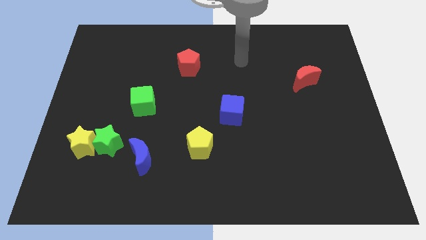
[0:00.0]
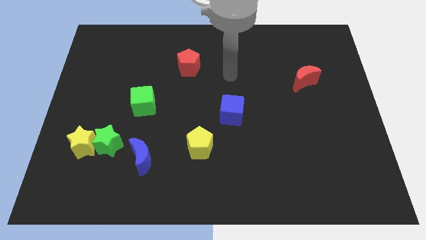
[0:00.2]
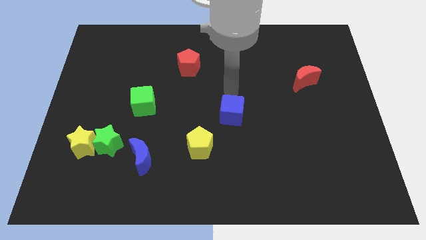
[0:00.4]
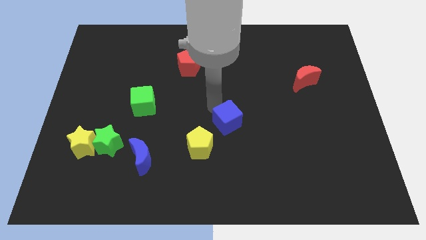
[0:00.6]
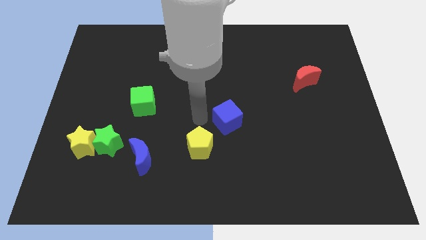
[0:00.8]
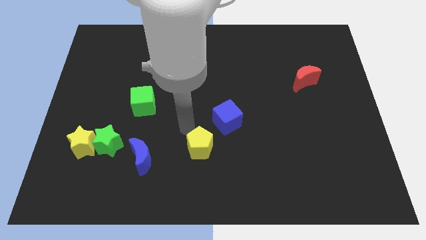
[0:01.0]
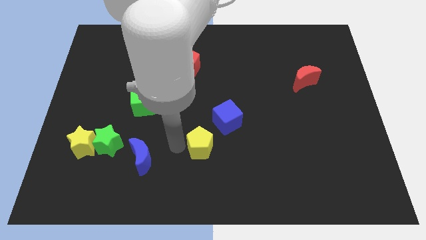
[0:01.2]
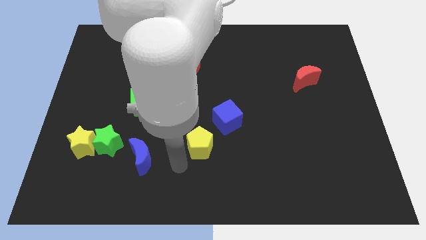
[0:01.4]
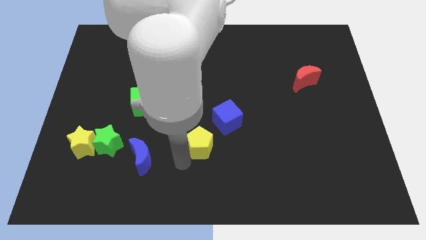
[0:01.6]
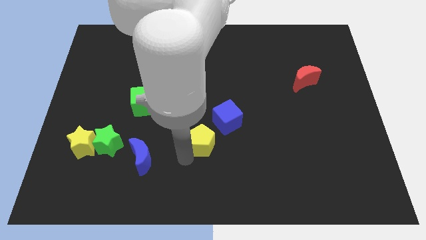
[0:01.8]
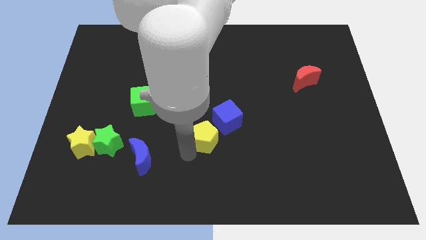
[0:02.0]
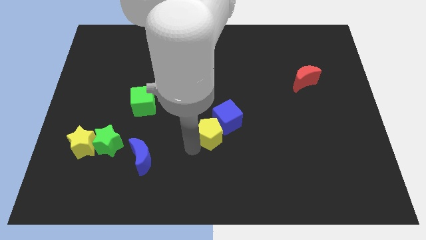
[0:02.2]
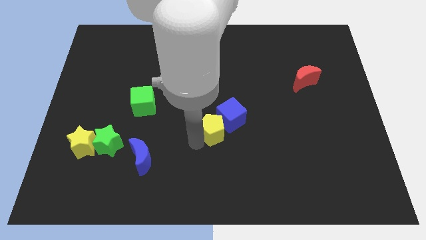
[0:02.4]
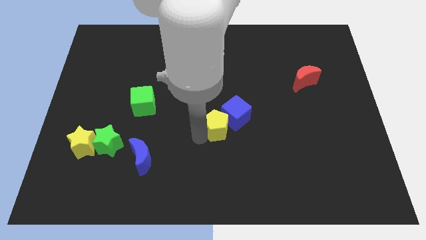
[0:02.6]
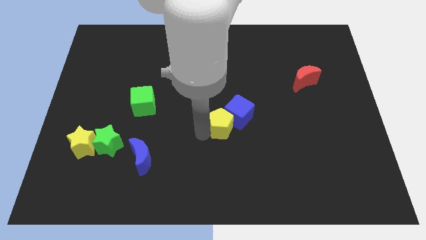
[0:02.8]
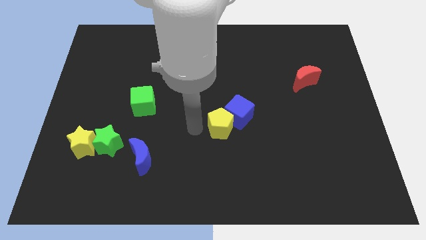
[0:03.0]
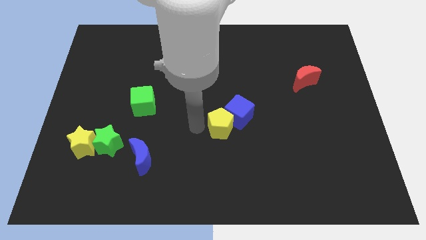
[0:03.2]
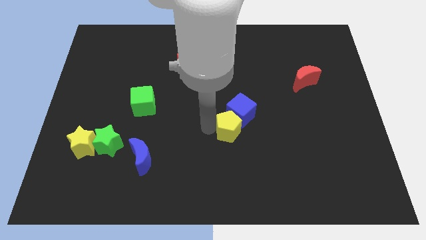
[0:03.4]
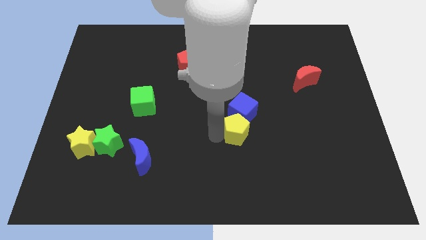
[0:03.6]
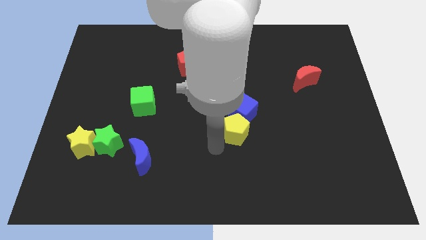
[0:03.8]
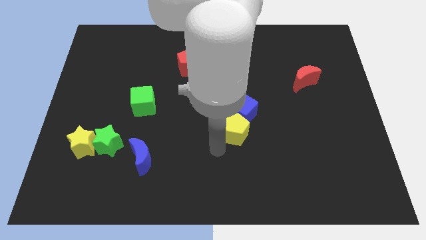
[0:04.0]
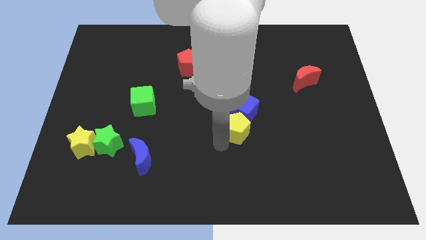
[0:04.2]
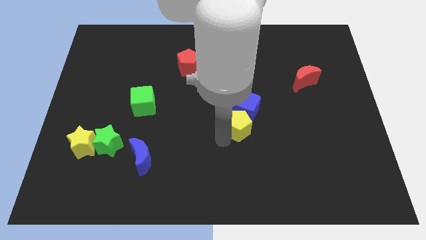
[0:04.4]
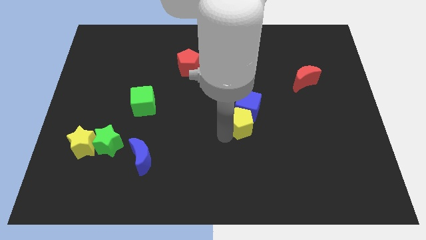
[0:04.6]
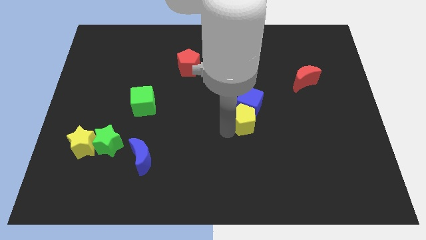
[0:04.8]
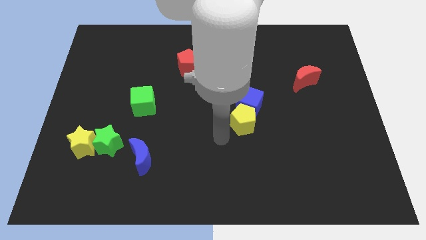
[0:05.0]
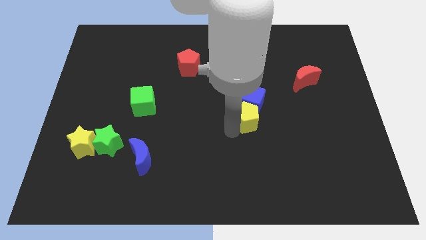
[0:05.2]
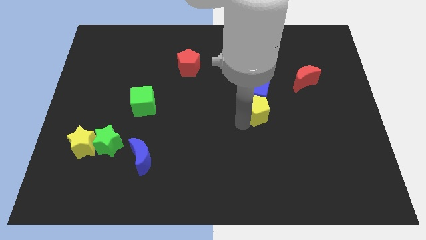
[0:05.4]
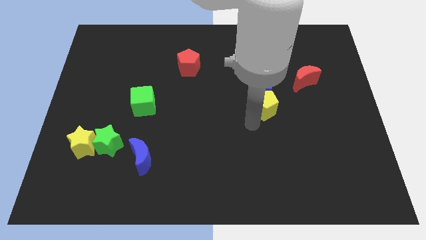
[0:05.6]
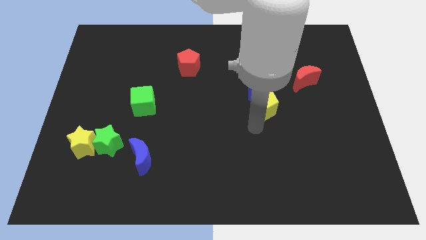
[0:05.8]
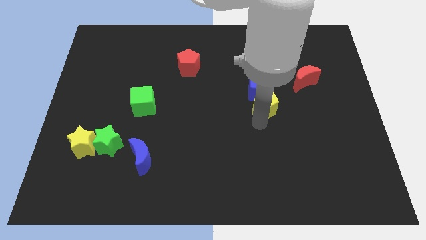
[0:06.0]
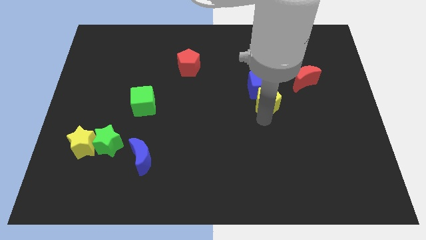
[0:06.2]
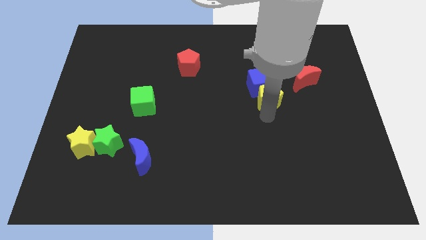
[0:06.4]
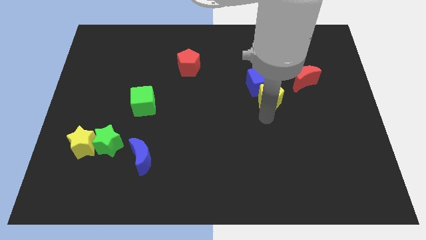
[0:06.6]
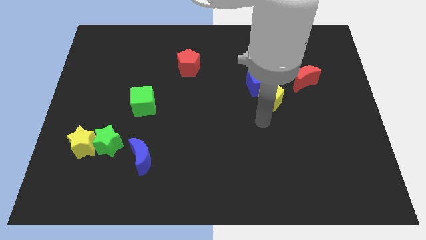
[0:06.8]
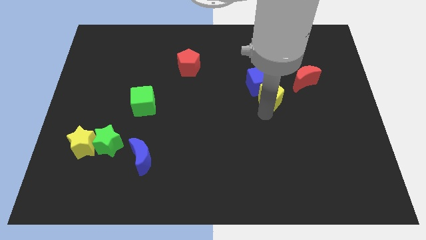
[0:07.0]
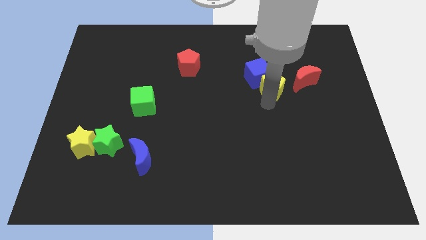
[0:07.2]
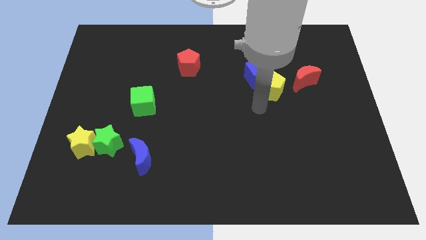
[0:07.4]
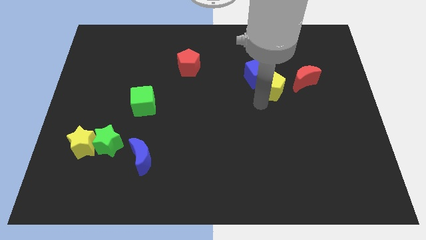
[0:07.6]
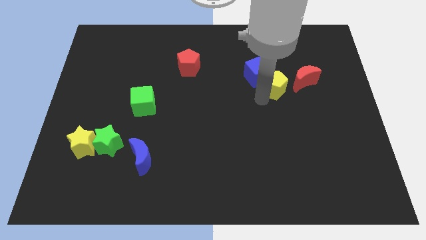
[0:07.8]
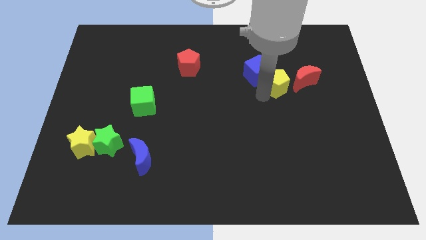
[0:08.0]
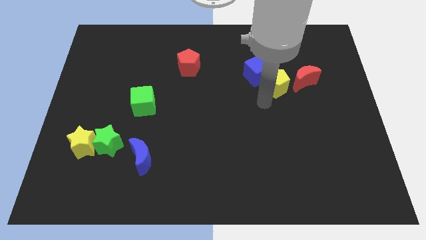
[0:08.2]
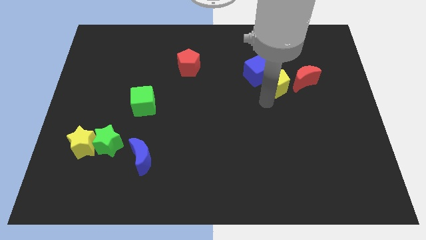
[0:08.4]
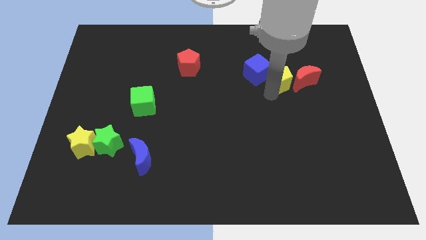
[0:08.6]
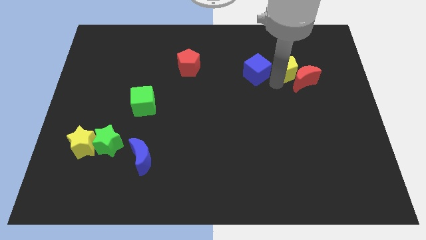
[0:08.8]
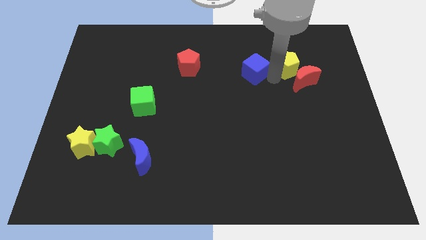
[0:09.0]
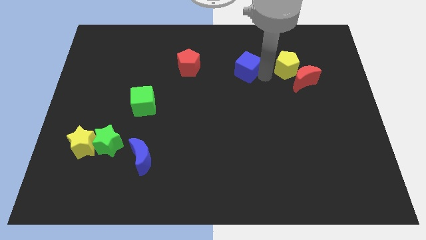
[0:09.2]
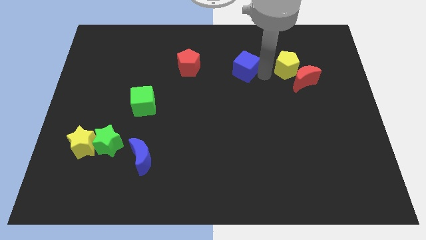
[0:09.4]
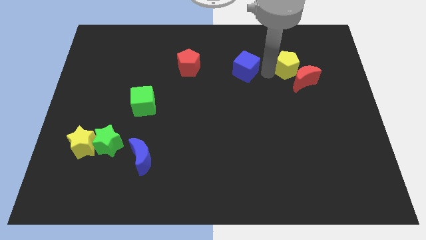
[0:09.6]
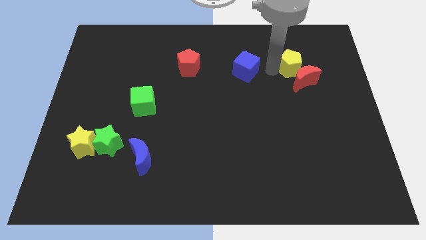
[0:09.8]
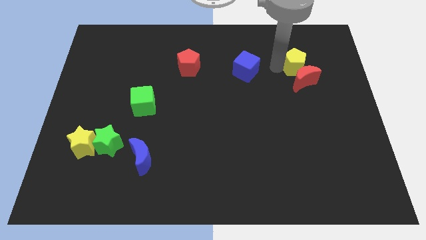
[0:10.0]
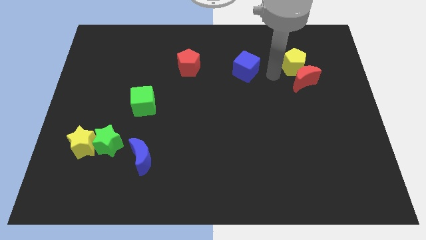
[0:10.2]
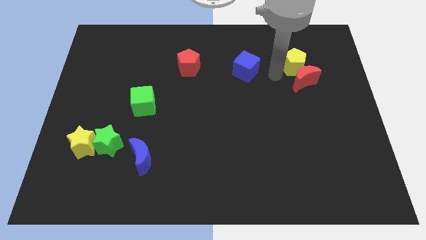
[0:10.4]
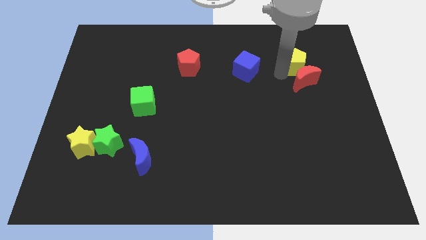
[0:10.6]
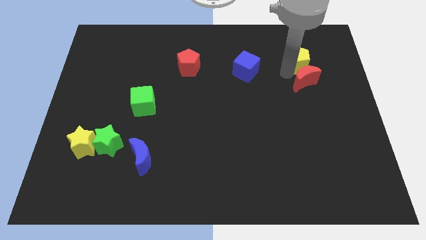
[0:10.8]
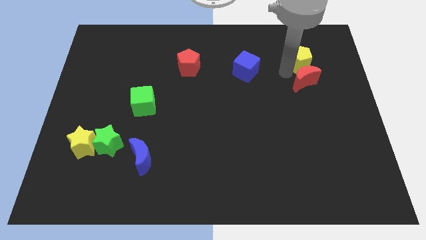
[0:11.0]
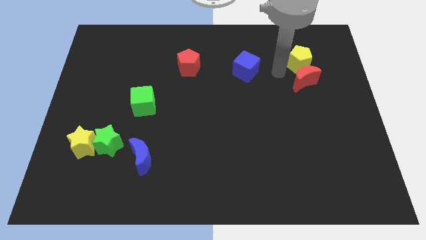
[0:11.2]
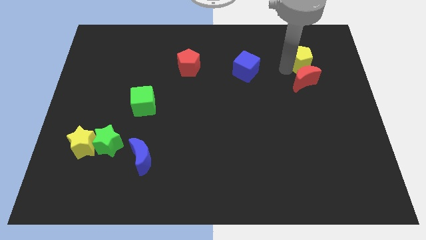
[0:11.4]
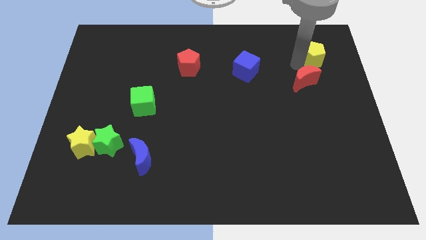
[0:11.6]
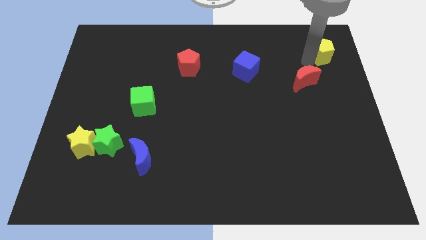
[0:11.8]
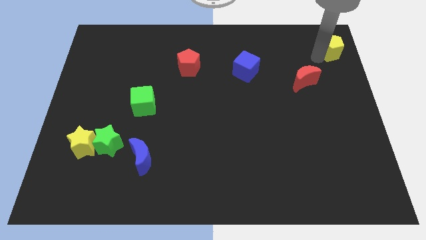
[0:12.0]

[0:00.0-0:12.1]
push the yellow pentagon to the top right

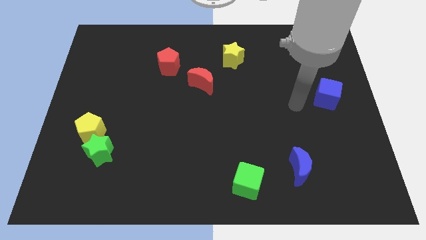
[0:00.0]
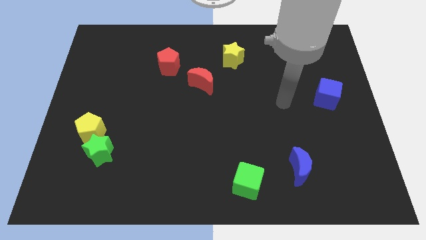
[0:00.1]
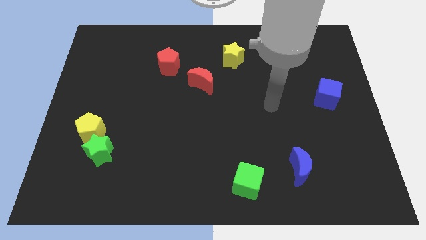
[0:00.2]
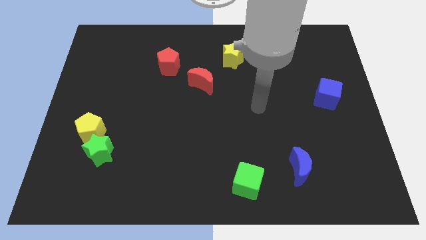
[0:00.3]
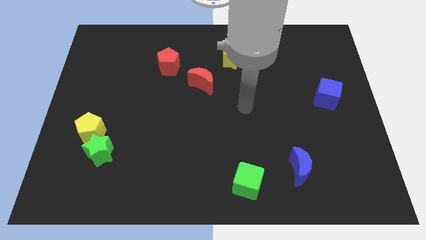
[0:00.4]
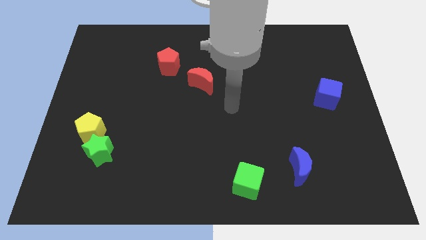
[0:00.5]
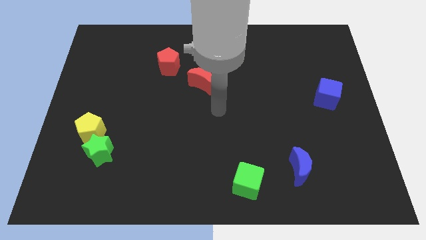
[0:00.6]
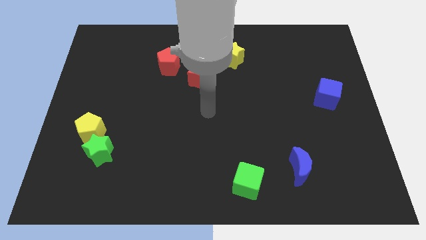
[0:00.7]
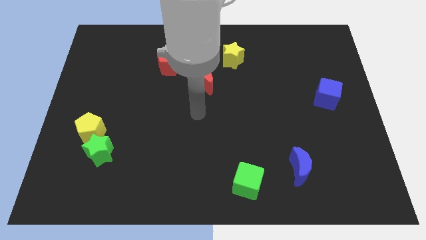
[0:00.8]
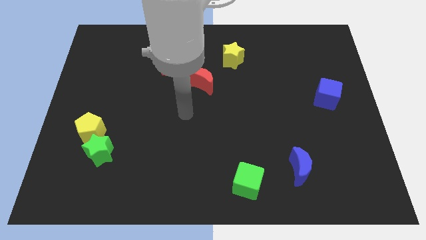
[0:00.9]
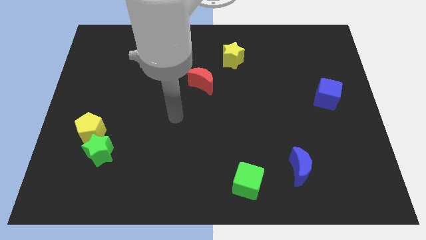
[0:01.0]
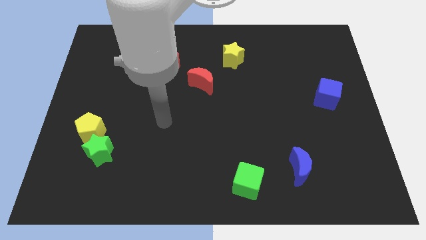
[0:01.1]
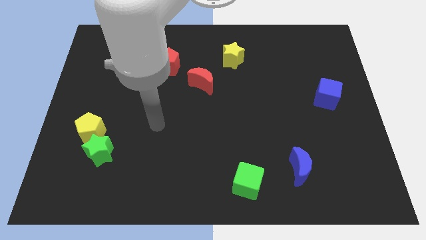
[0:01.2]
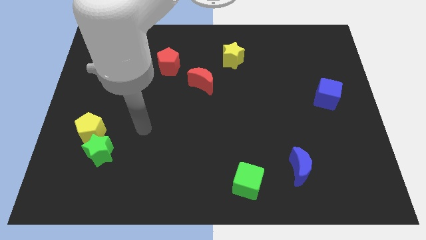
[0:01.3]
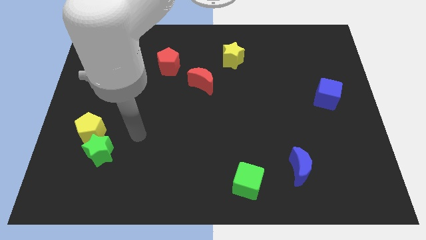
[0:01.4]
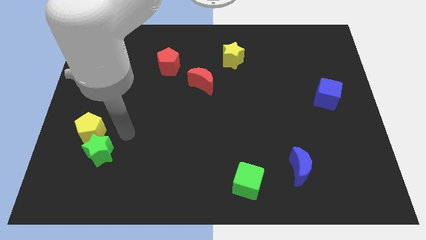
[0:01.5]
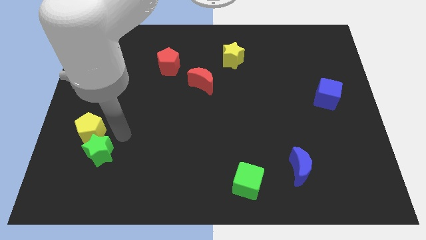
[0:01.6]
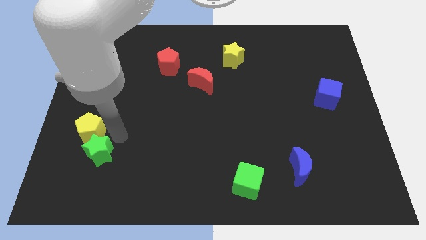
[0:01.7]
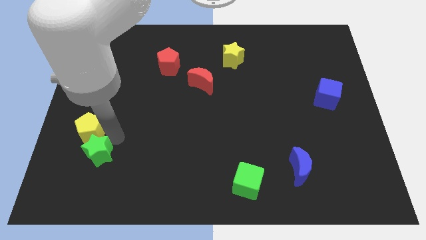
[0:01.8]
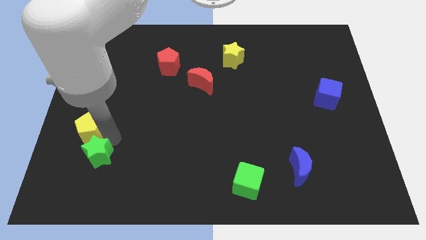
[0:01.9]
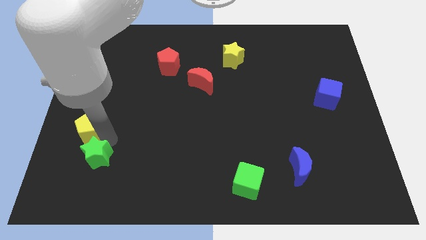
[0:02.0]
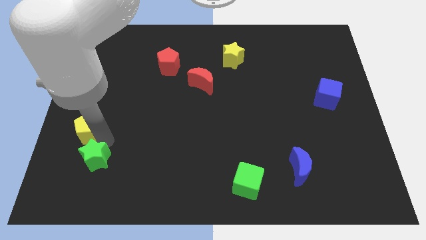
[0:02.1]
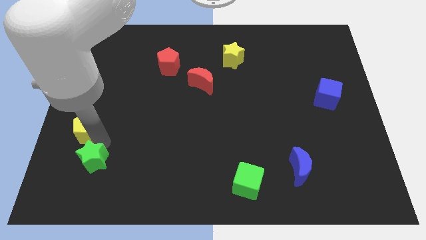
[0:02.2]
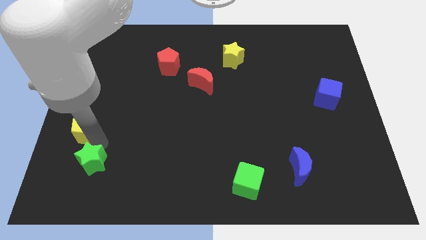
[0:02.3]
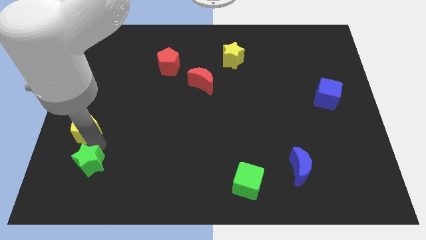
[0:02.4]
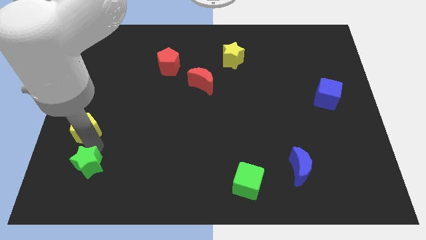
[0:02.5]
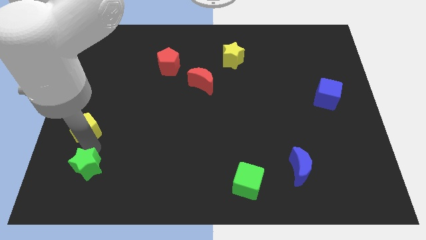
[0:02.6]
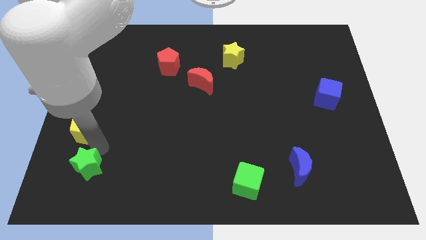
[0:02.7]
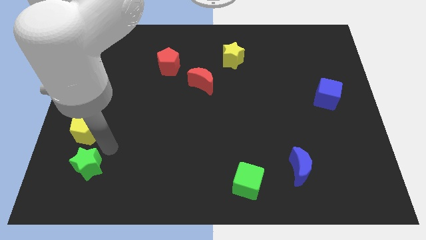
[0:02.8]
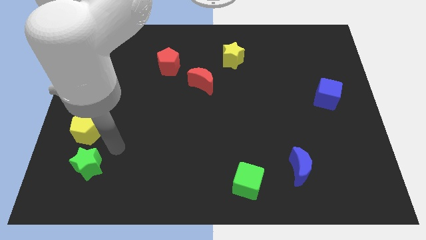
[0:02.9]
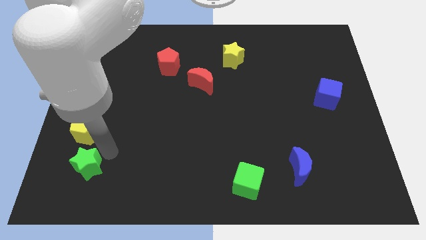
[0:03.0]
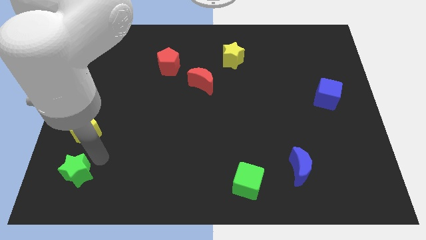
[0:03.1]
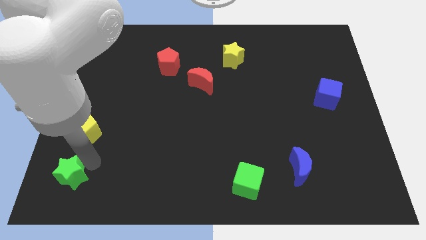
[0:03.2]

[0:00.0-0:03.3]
slide the green star to the bottom left
